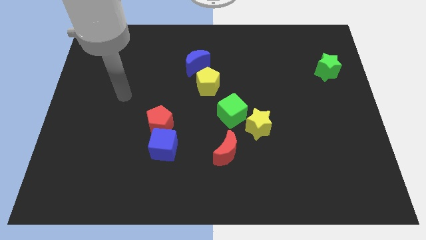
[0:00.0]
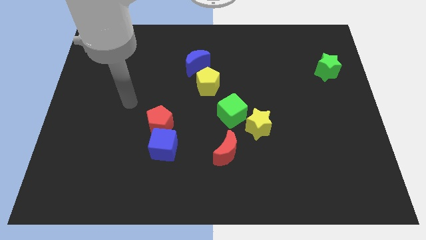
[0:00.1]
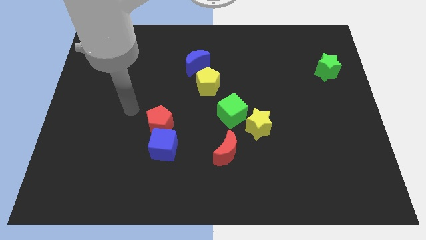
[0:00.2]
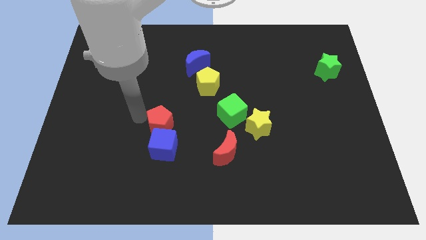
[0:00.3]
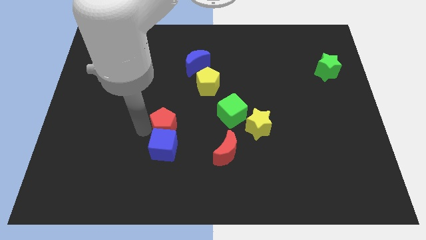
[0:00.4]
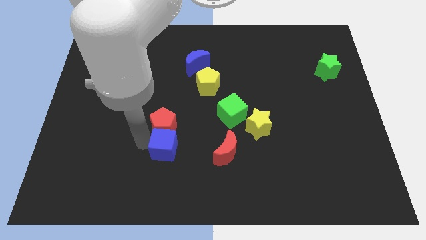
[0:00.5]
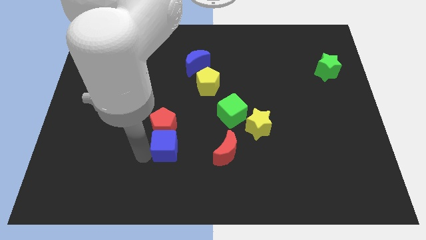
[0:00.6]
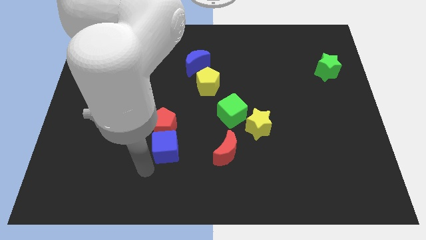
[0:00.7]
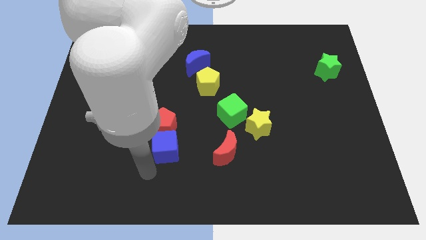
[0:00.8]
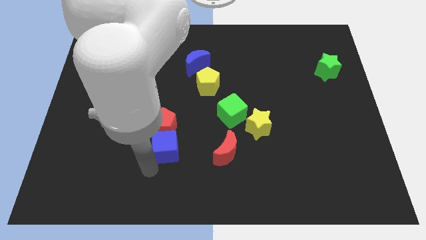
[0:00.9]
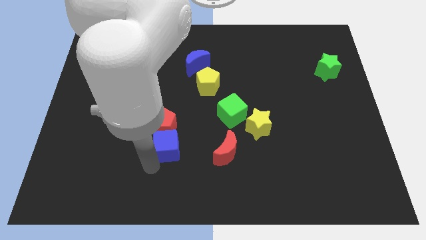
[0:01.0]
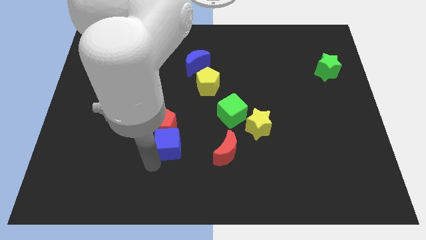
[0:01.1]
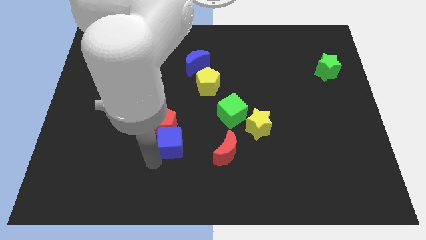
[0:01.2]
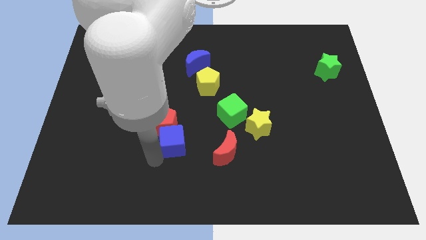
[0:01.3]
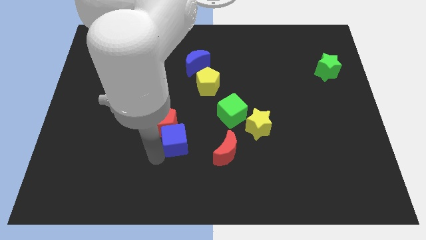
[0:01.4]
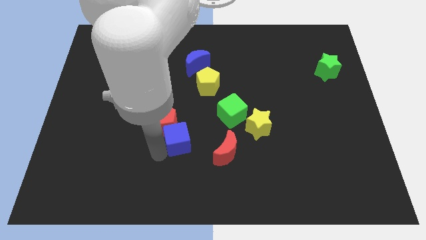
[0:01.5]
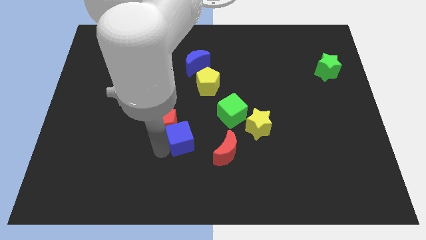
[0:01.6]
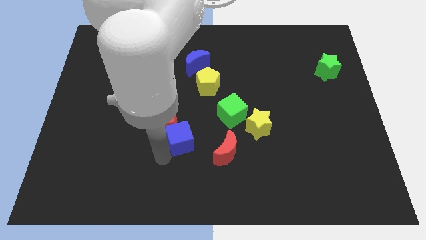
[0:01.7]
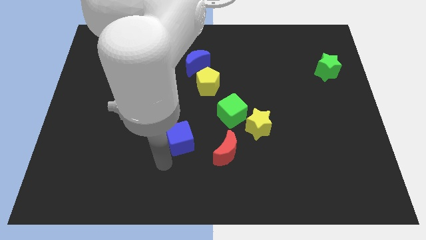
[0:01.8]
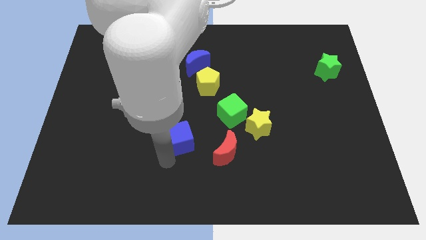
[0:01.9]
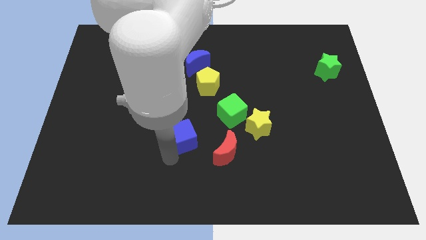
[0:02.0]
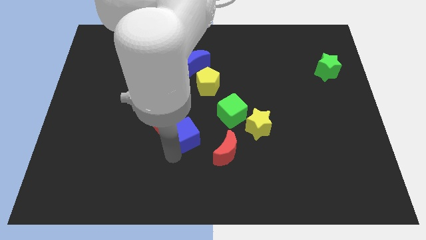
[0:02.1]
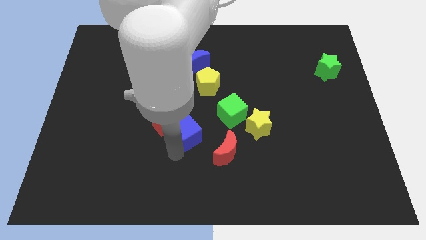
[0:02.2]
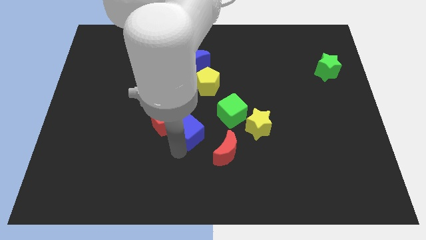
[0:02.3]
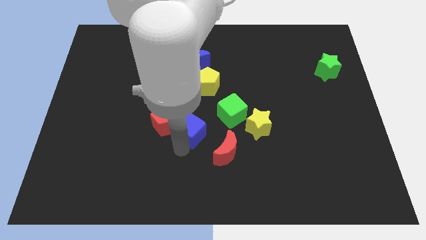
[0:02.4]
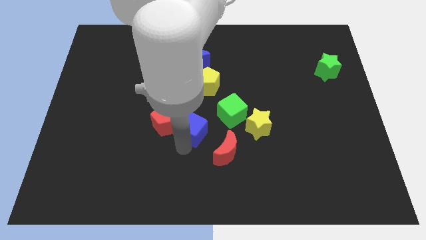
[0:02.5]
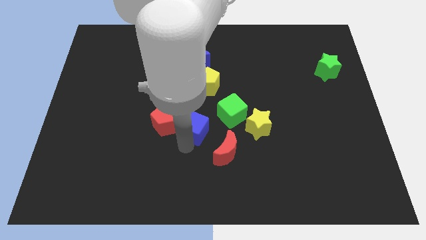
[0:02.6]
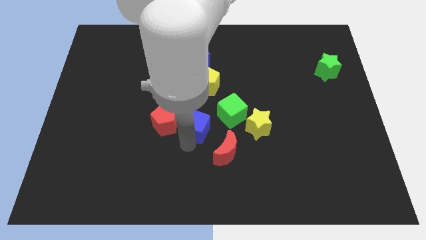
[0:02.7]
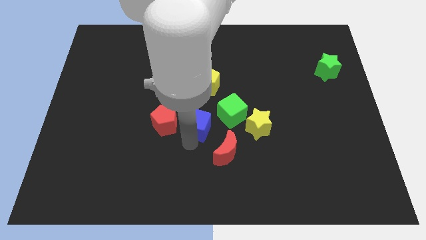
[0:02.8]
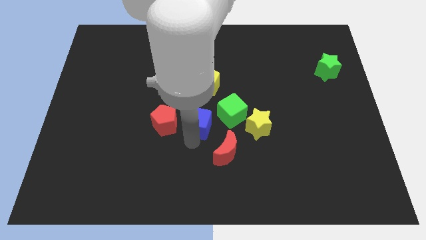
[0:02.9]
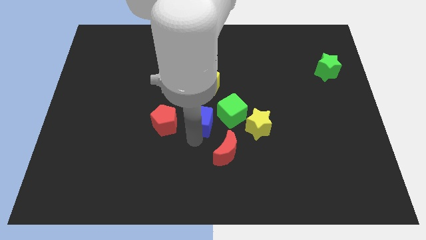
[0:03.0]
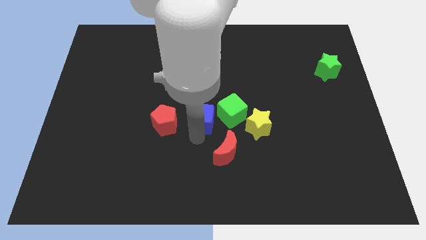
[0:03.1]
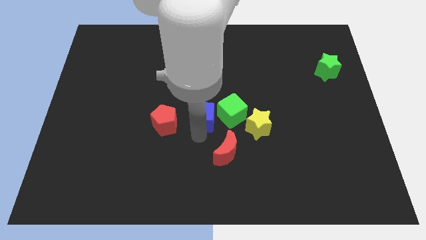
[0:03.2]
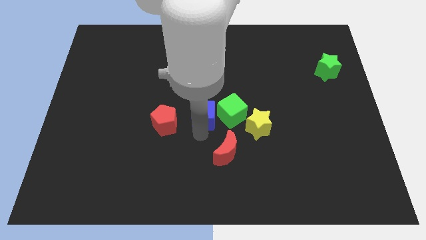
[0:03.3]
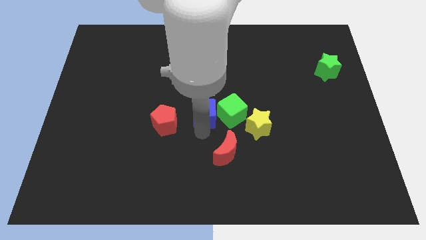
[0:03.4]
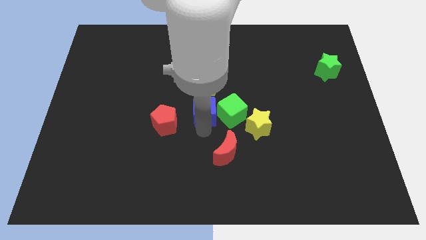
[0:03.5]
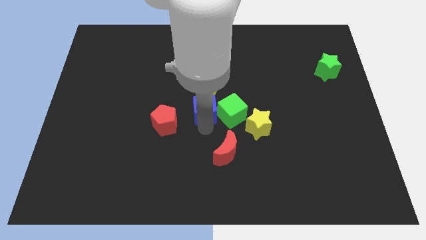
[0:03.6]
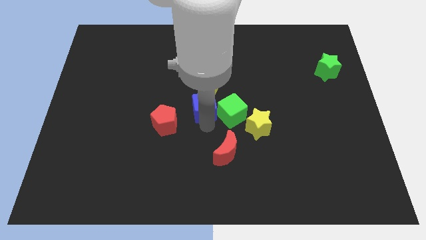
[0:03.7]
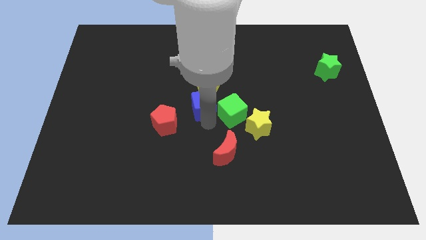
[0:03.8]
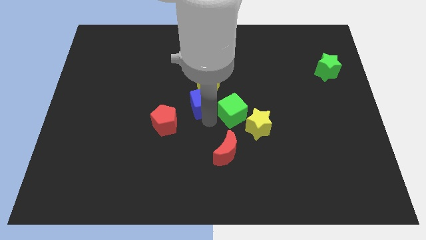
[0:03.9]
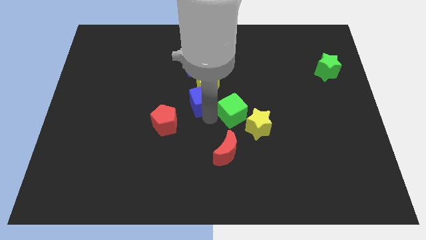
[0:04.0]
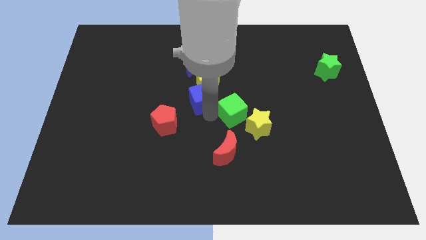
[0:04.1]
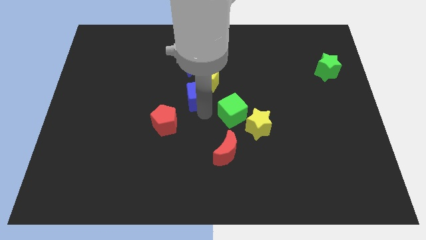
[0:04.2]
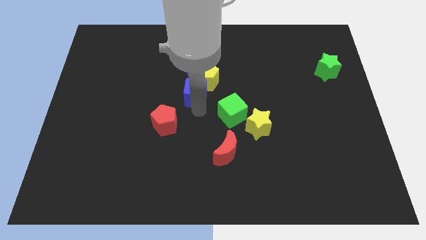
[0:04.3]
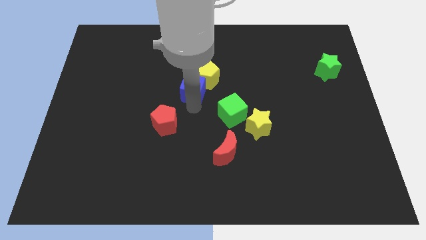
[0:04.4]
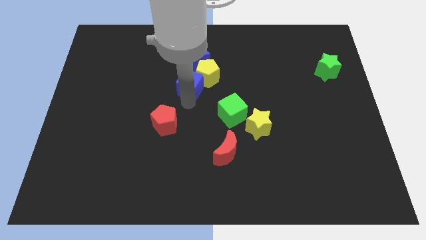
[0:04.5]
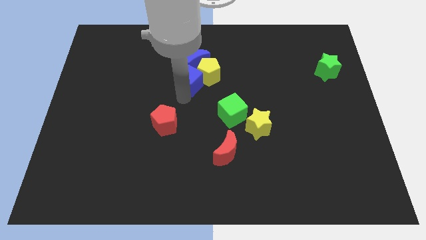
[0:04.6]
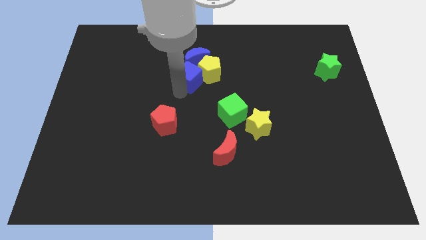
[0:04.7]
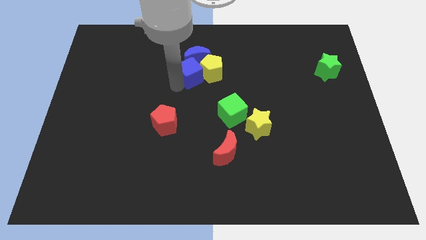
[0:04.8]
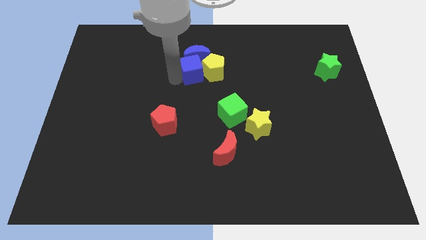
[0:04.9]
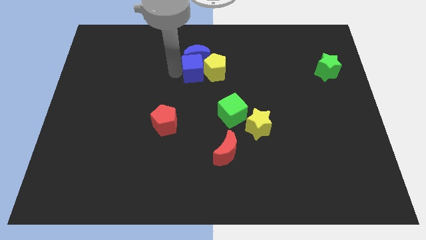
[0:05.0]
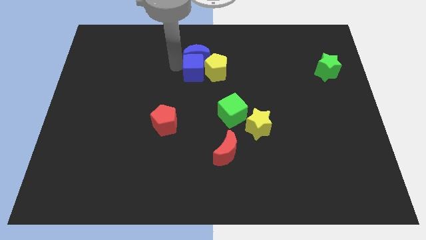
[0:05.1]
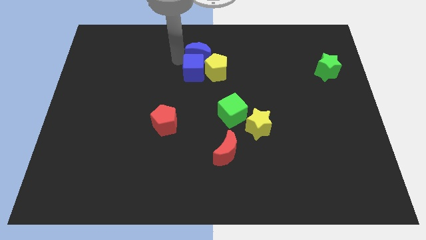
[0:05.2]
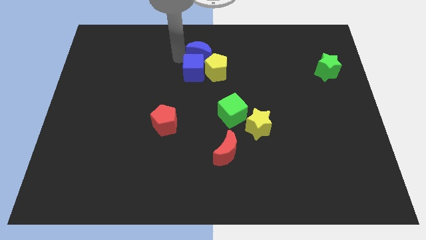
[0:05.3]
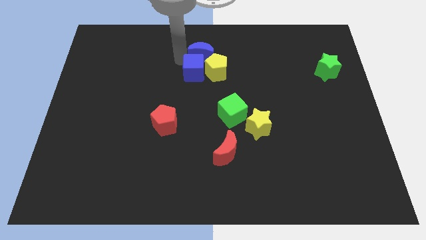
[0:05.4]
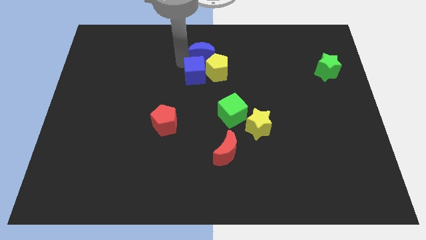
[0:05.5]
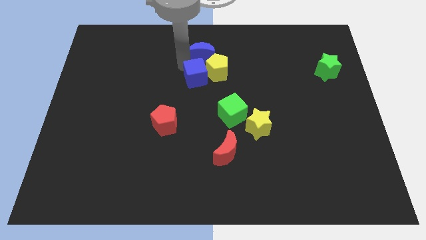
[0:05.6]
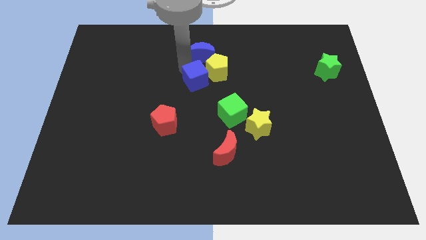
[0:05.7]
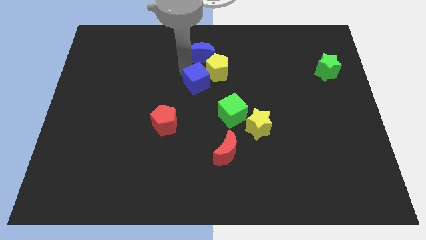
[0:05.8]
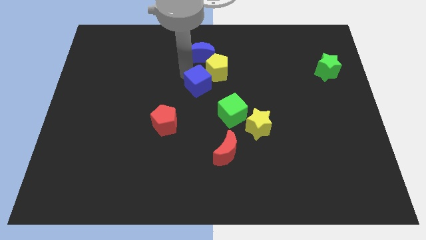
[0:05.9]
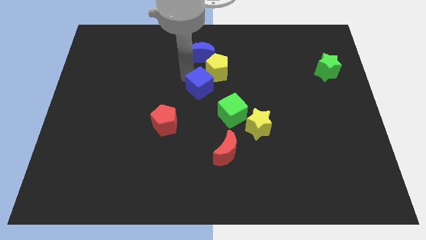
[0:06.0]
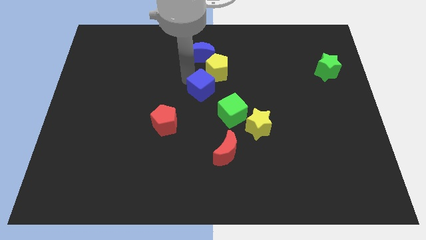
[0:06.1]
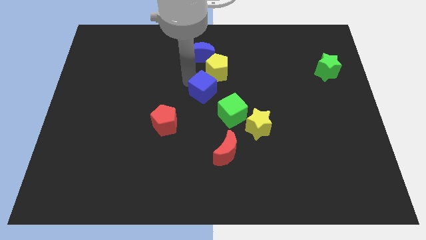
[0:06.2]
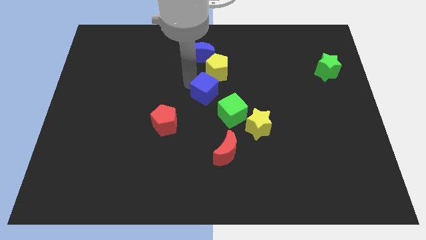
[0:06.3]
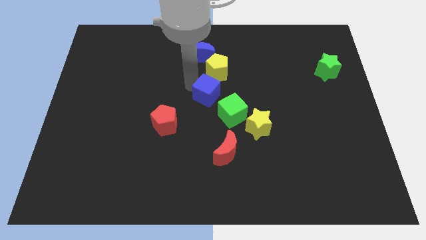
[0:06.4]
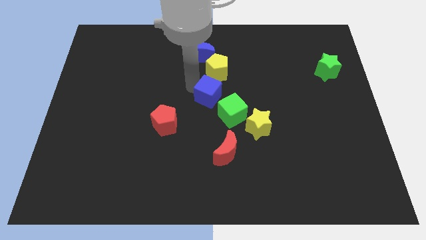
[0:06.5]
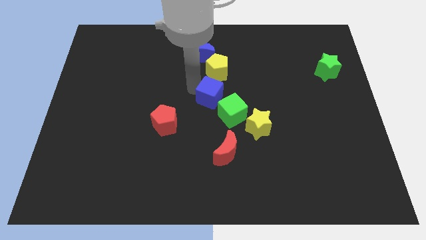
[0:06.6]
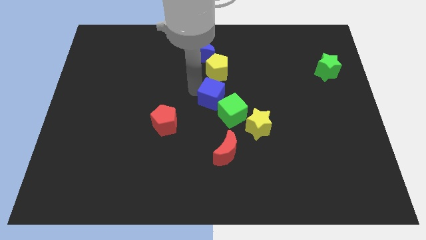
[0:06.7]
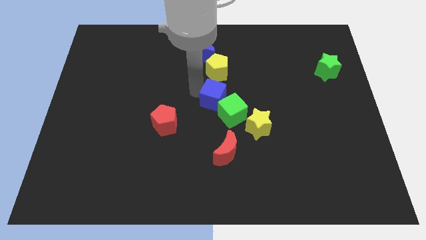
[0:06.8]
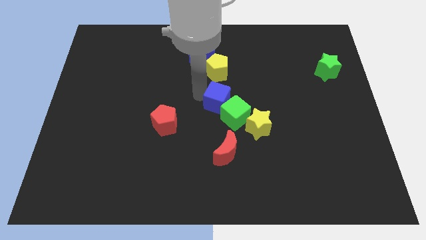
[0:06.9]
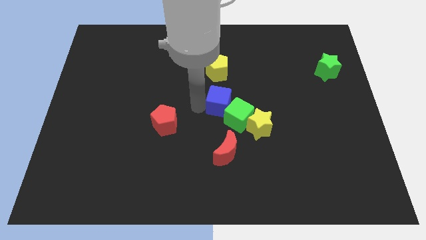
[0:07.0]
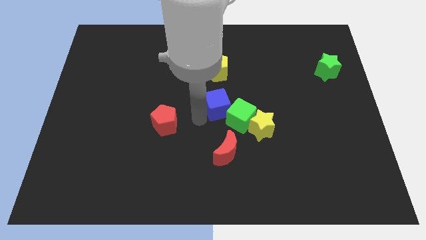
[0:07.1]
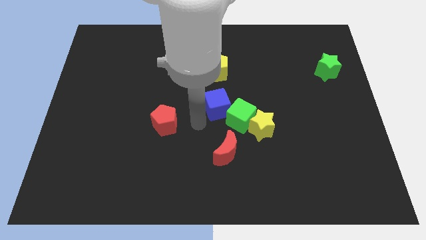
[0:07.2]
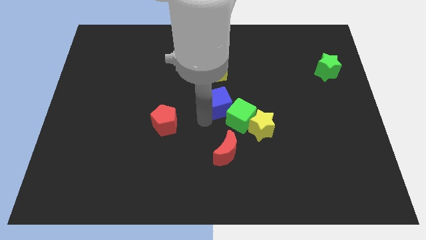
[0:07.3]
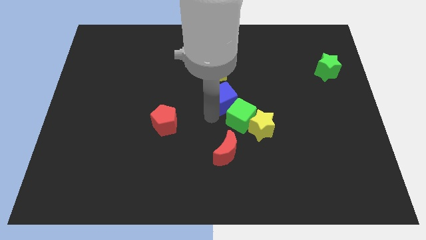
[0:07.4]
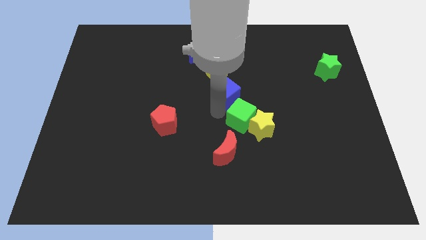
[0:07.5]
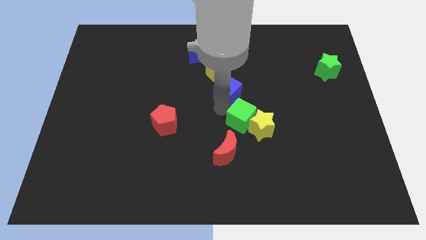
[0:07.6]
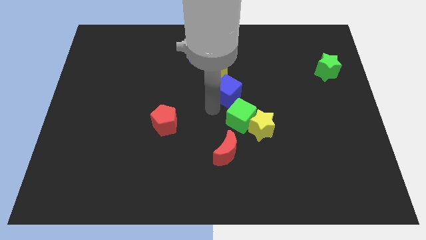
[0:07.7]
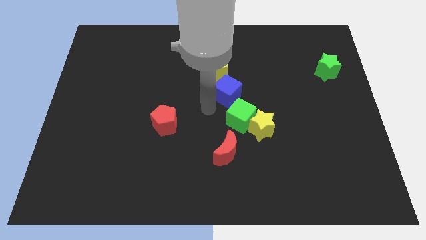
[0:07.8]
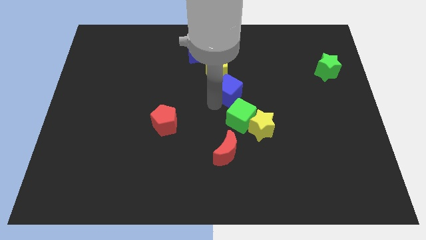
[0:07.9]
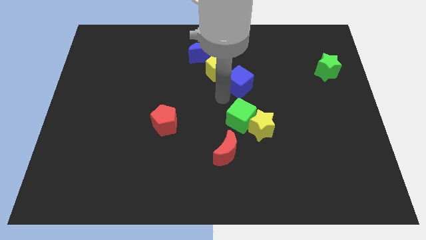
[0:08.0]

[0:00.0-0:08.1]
push the blue cube to the right of the yellow pentagon

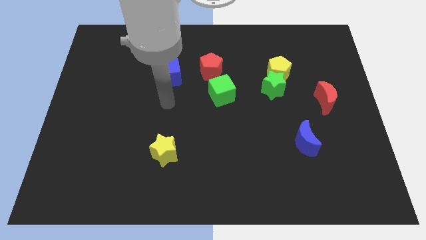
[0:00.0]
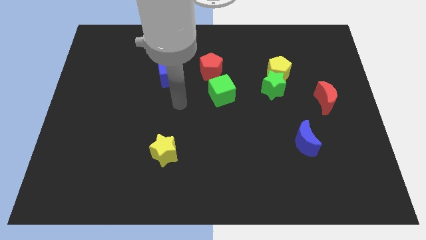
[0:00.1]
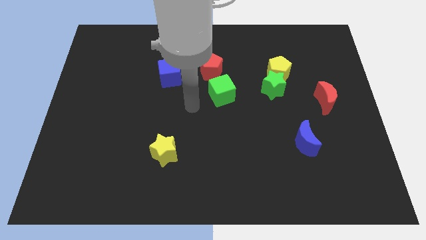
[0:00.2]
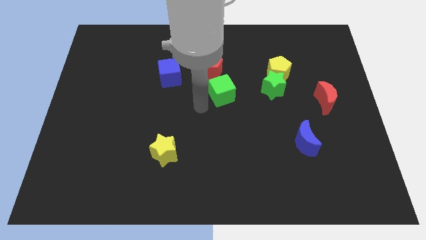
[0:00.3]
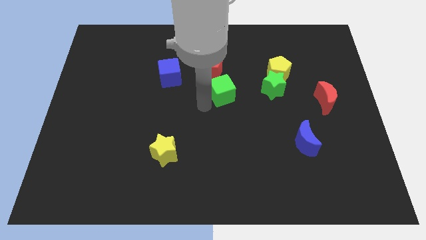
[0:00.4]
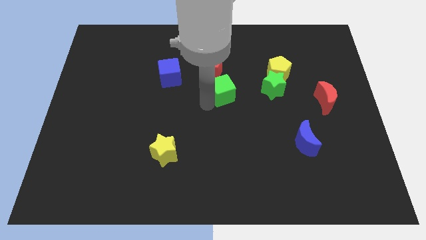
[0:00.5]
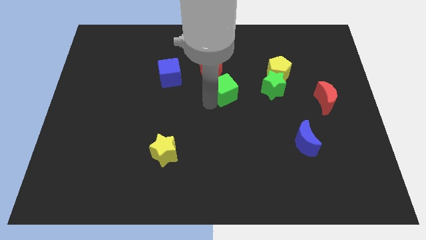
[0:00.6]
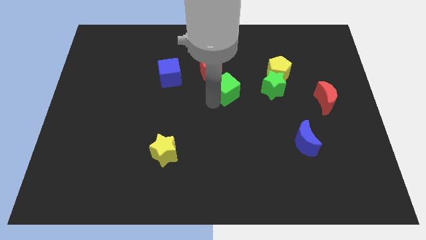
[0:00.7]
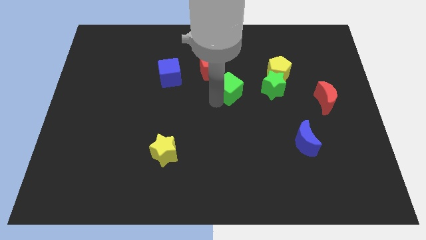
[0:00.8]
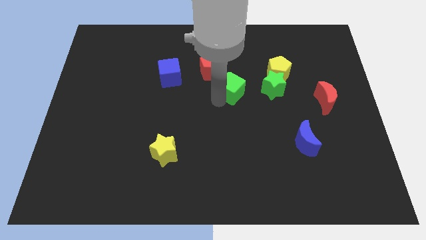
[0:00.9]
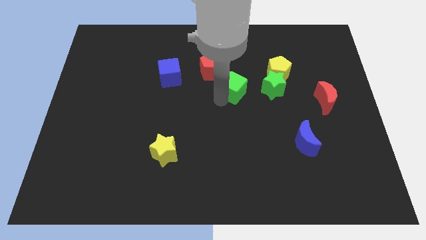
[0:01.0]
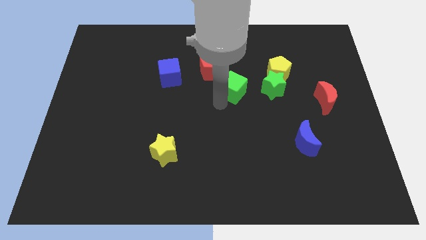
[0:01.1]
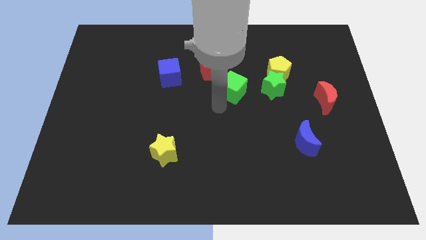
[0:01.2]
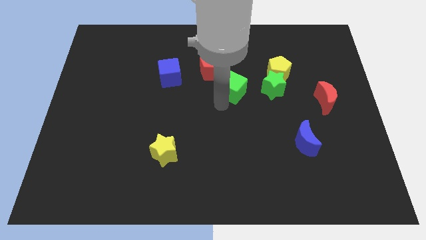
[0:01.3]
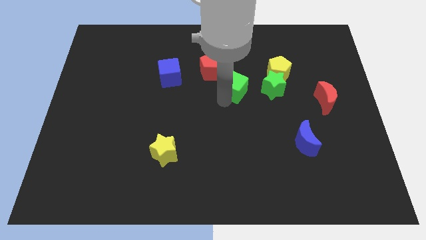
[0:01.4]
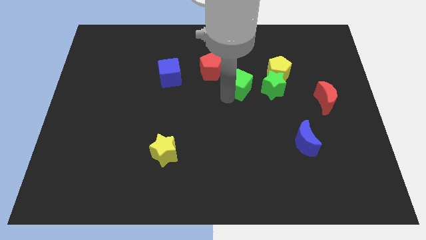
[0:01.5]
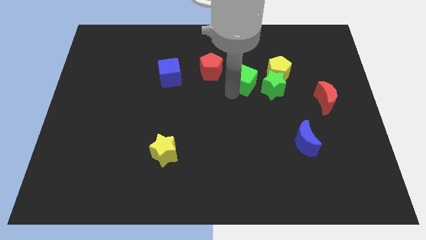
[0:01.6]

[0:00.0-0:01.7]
move the green cube to the top left of the green star
